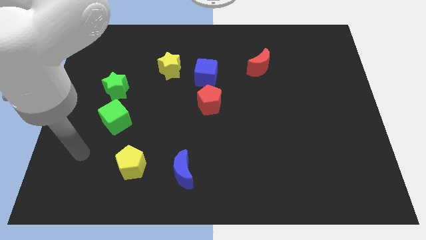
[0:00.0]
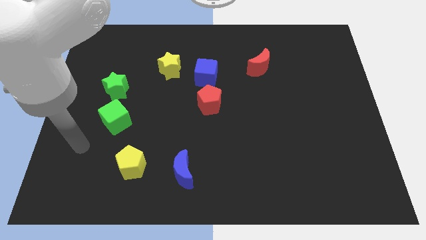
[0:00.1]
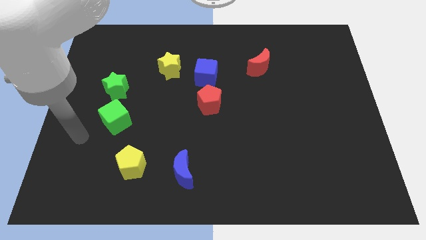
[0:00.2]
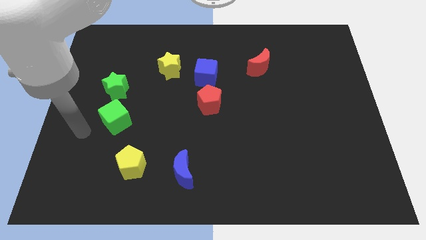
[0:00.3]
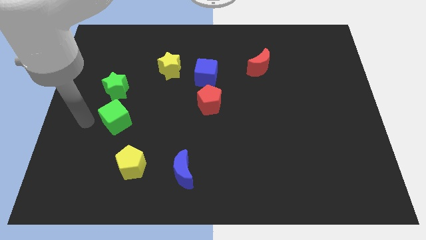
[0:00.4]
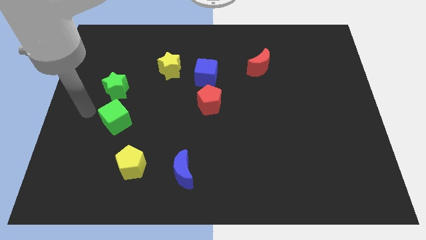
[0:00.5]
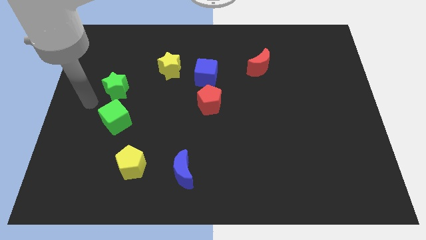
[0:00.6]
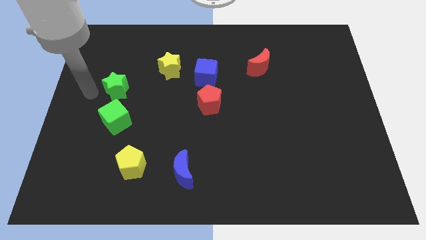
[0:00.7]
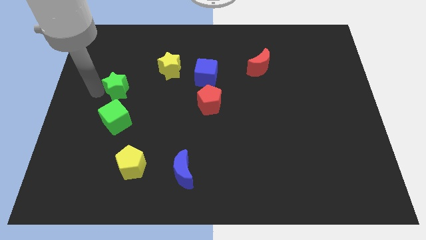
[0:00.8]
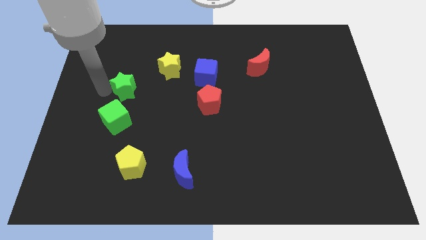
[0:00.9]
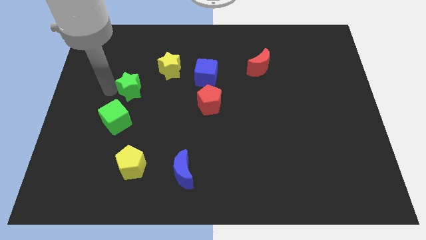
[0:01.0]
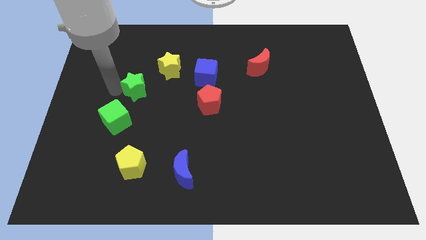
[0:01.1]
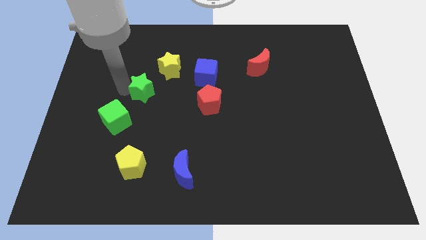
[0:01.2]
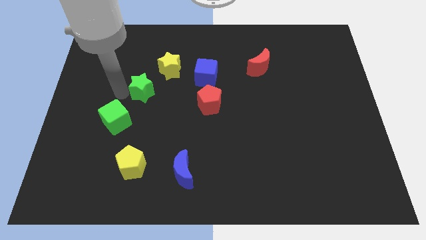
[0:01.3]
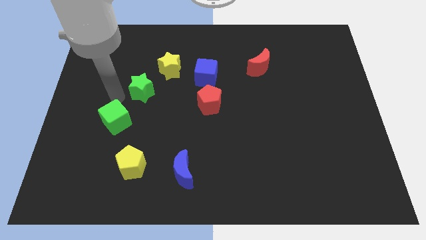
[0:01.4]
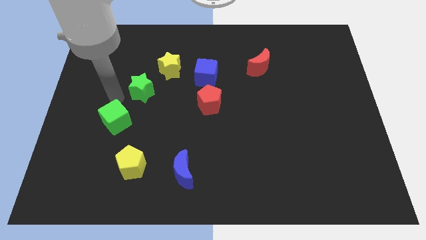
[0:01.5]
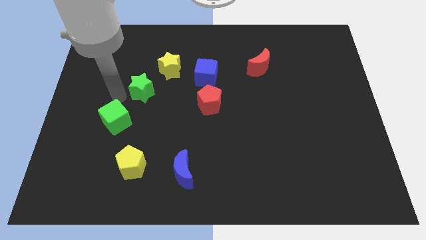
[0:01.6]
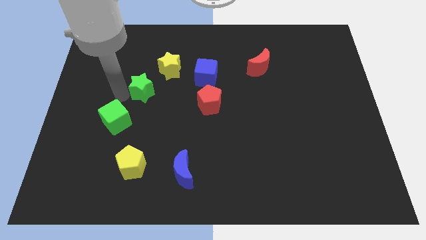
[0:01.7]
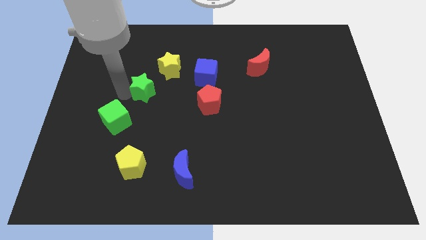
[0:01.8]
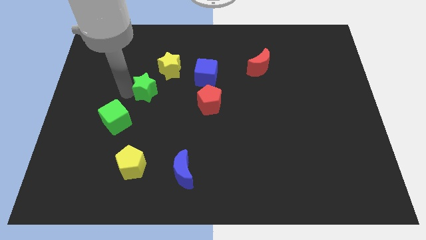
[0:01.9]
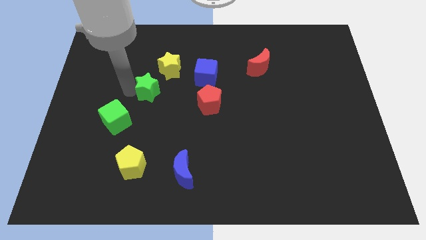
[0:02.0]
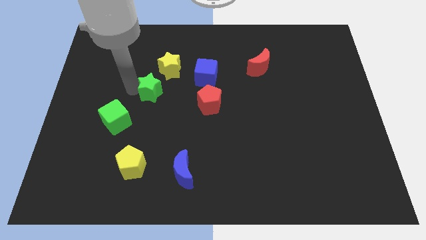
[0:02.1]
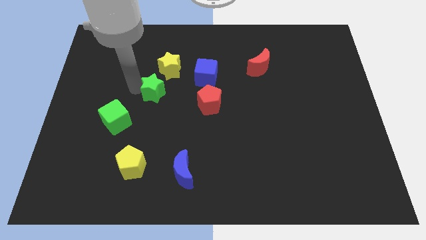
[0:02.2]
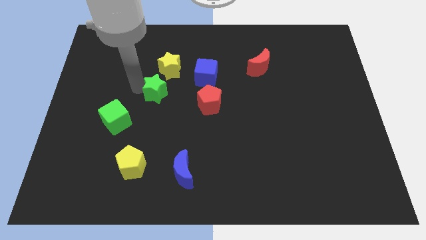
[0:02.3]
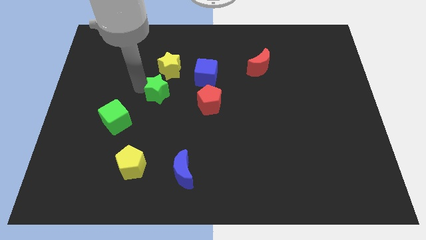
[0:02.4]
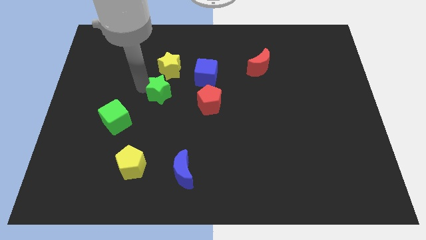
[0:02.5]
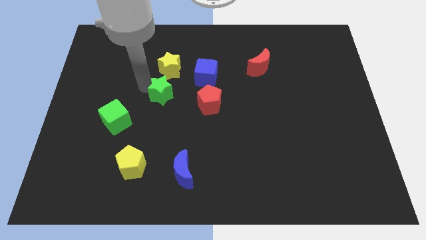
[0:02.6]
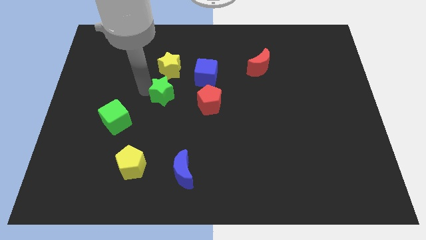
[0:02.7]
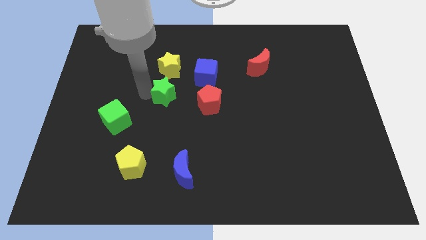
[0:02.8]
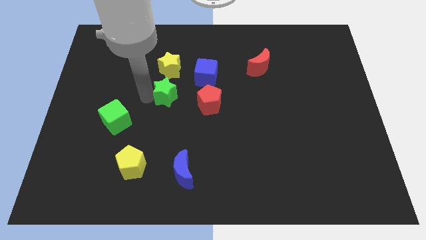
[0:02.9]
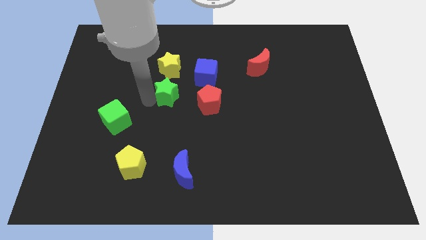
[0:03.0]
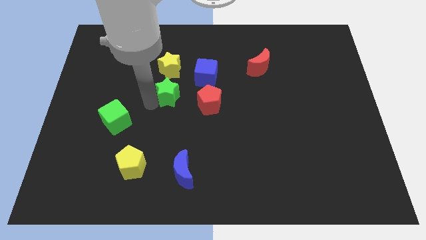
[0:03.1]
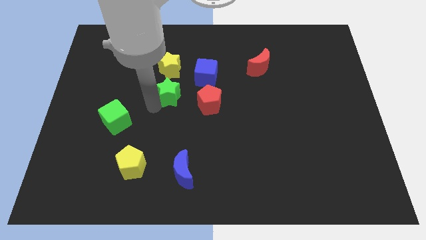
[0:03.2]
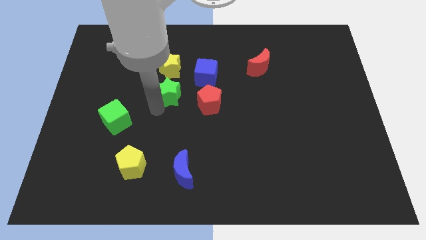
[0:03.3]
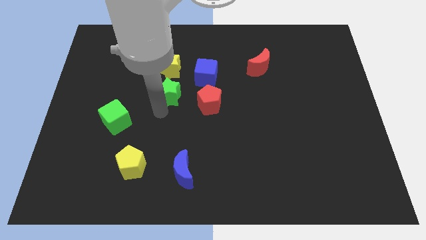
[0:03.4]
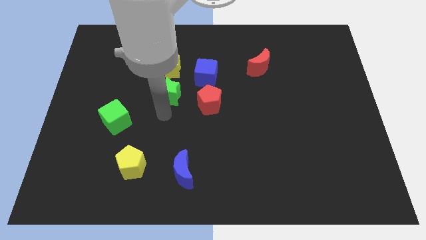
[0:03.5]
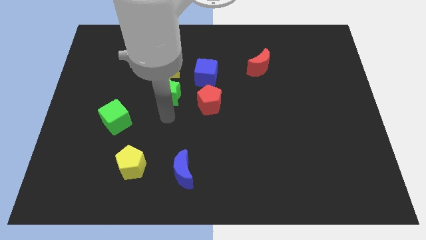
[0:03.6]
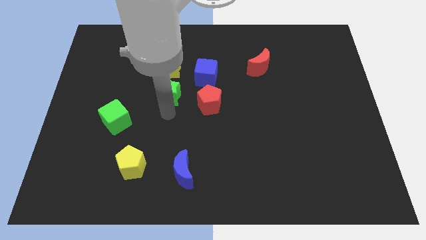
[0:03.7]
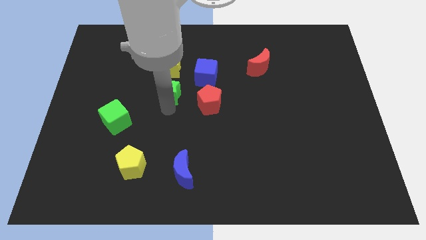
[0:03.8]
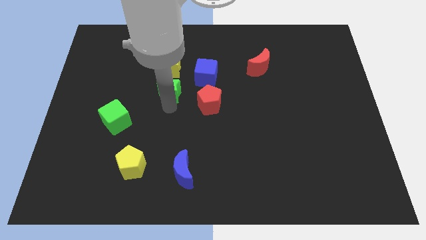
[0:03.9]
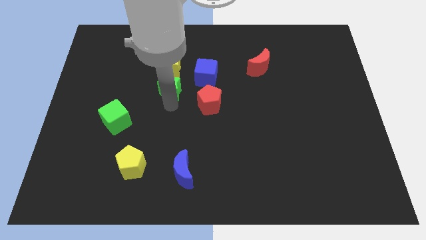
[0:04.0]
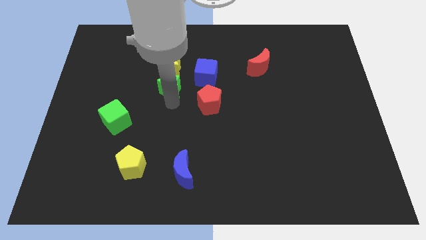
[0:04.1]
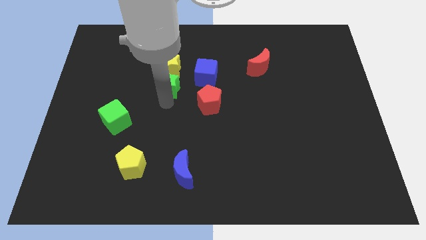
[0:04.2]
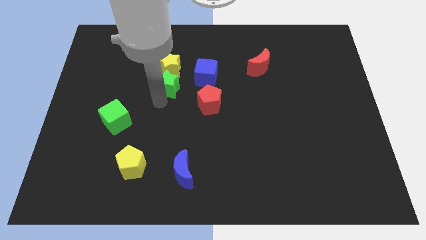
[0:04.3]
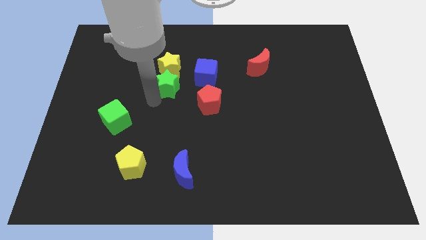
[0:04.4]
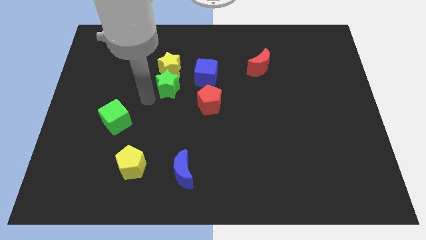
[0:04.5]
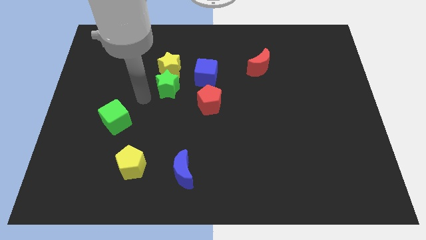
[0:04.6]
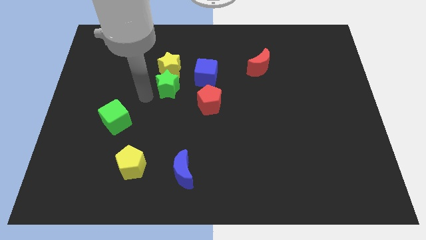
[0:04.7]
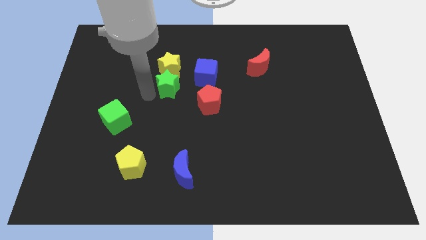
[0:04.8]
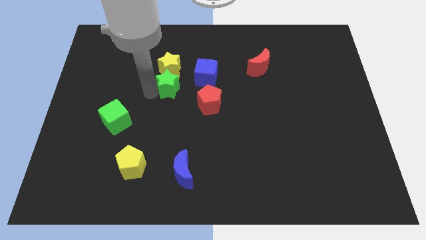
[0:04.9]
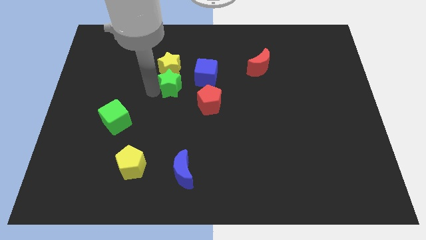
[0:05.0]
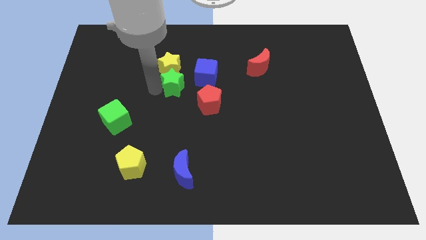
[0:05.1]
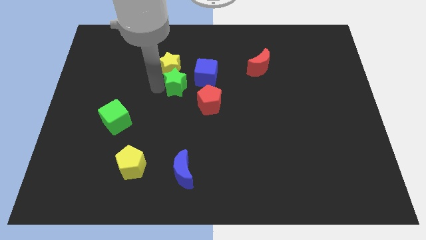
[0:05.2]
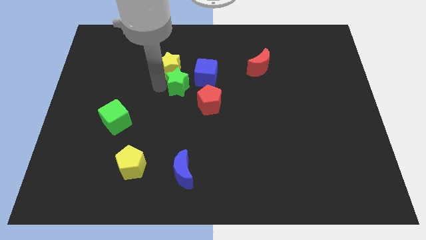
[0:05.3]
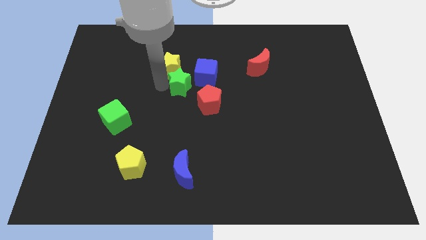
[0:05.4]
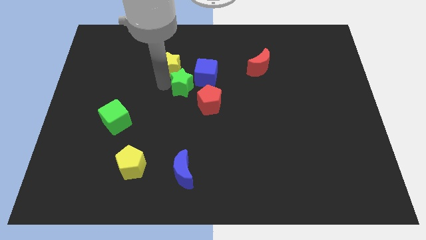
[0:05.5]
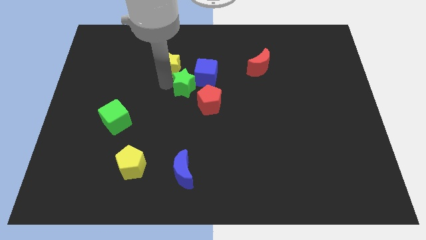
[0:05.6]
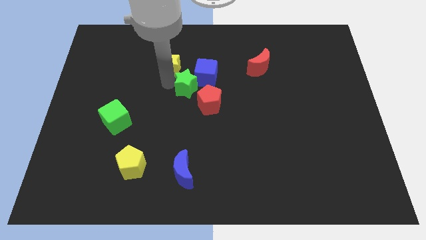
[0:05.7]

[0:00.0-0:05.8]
move the green star towards the blue cube

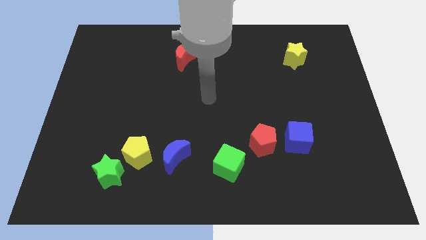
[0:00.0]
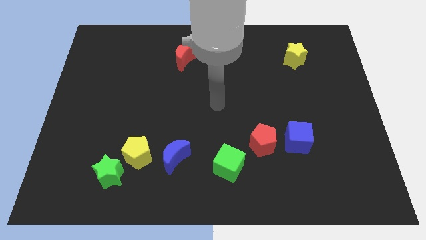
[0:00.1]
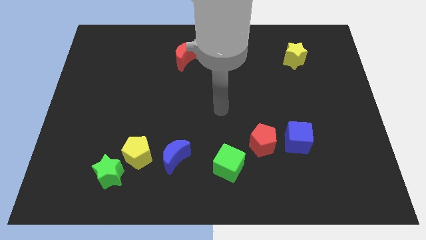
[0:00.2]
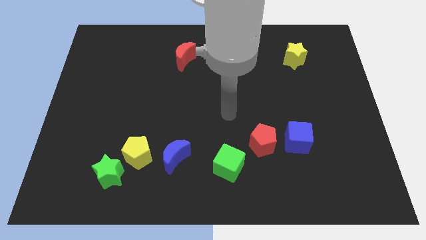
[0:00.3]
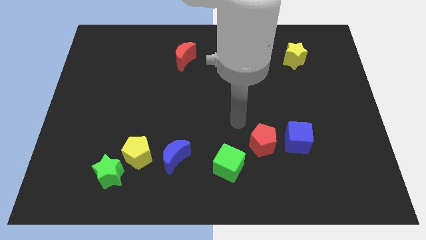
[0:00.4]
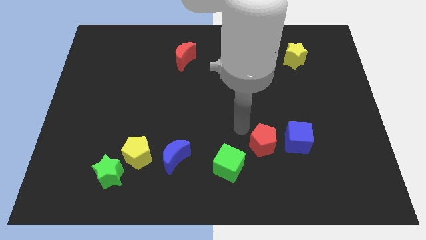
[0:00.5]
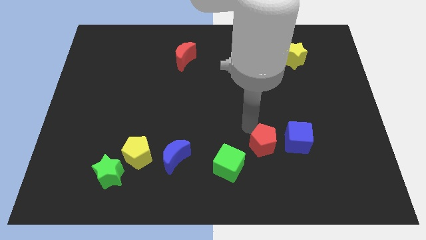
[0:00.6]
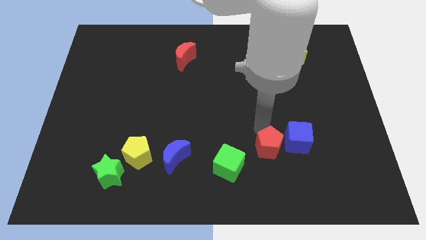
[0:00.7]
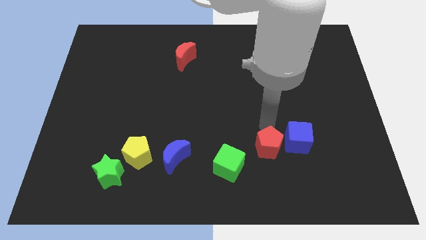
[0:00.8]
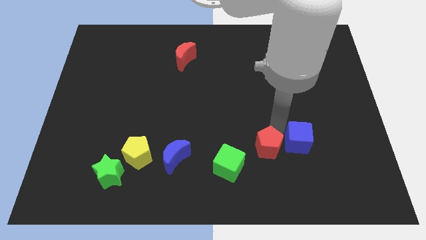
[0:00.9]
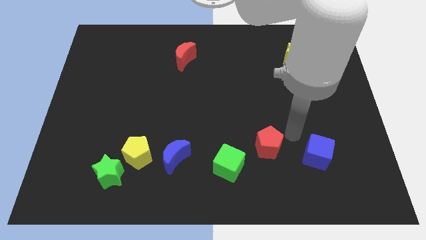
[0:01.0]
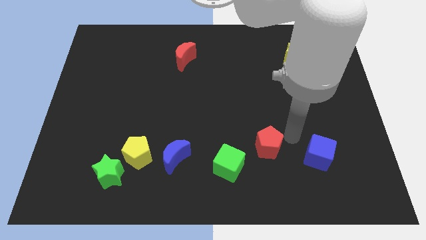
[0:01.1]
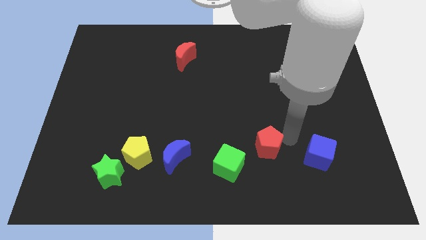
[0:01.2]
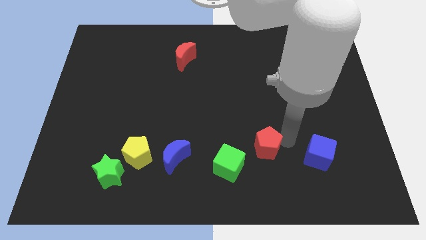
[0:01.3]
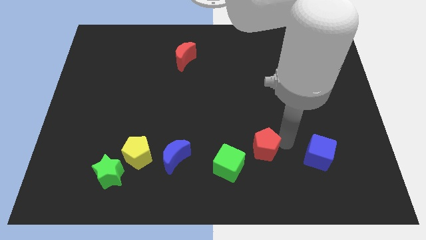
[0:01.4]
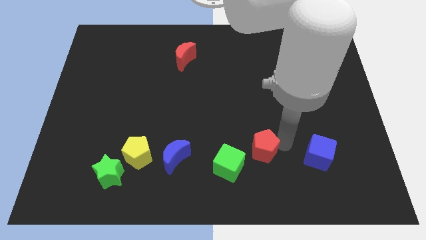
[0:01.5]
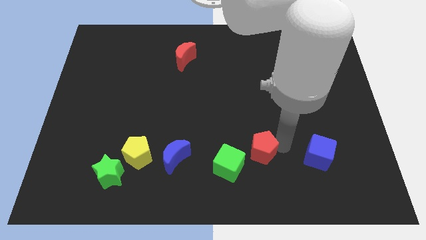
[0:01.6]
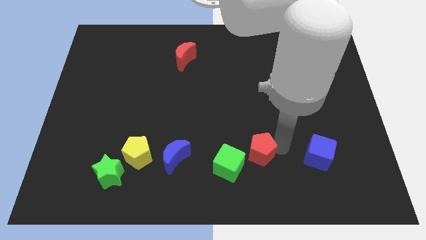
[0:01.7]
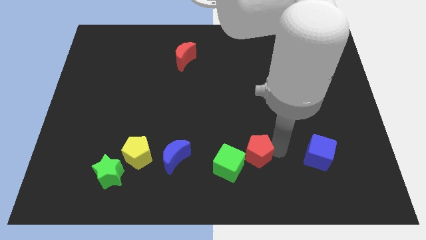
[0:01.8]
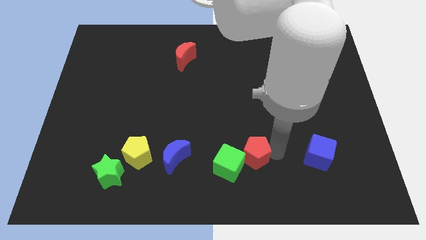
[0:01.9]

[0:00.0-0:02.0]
move the red pentagon towards the green cube
